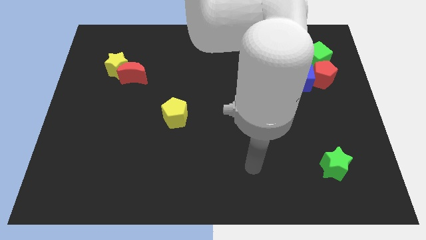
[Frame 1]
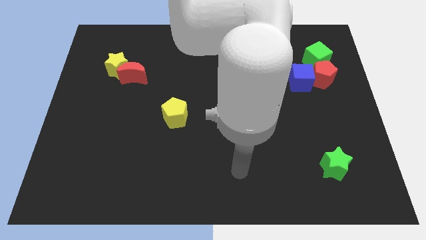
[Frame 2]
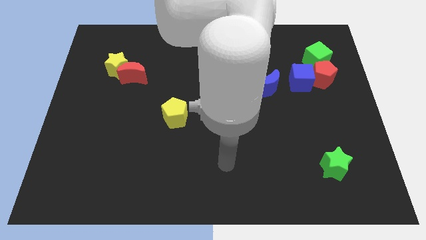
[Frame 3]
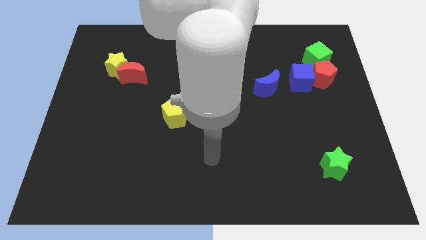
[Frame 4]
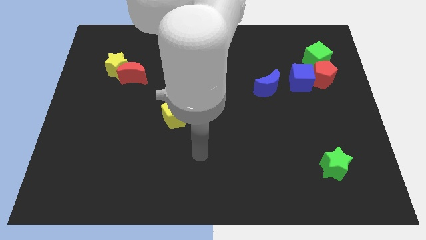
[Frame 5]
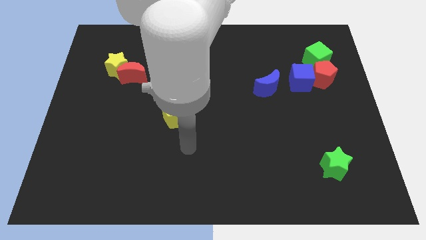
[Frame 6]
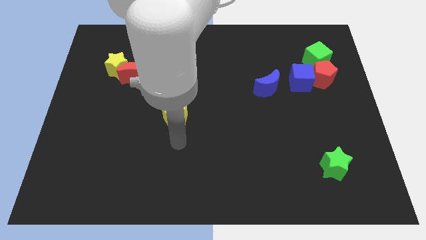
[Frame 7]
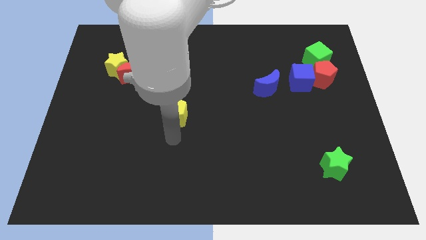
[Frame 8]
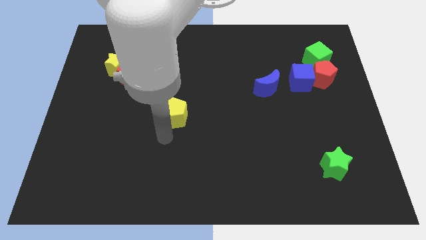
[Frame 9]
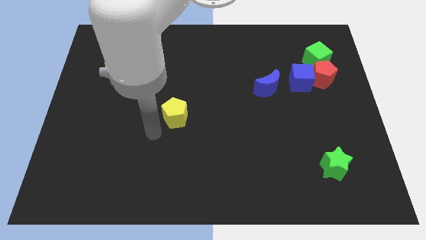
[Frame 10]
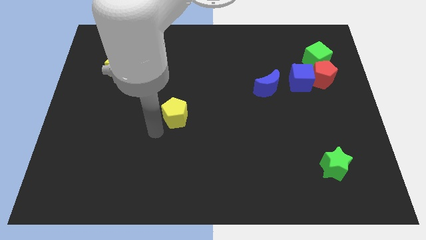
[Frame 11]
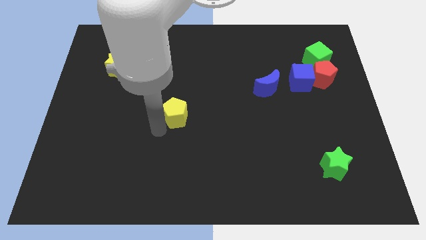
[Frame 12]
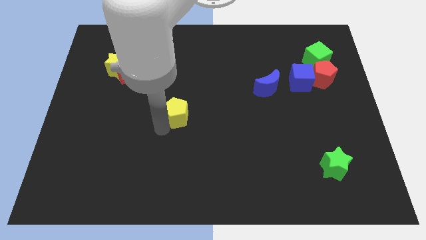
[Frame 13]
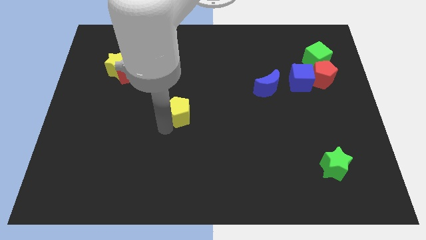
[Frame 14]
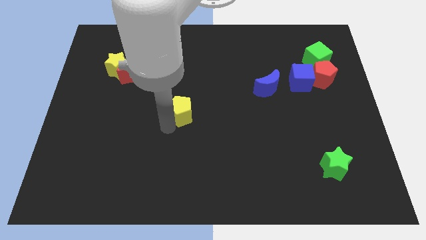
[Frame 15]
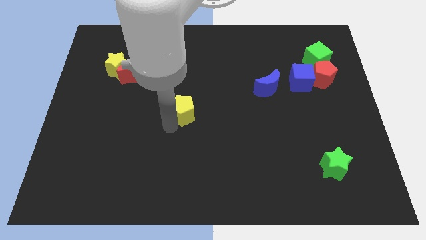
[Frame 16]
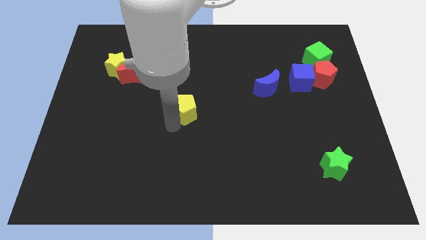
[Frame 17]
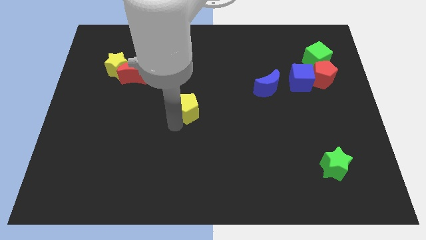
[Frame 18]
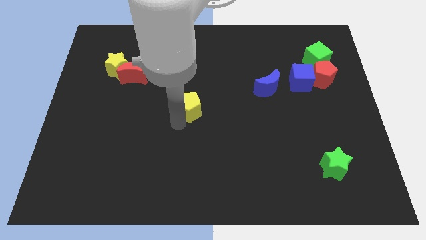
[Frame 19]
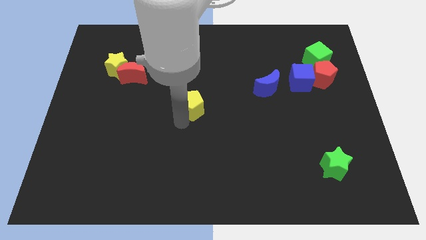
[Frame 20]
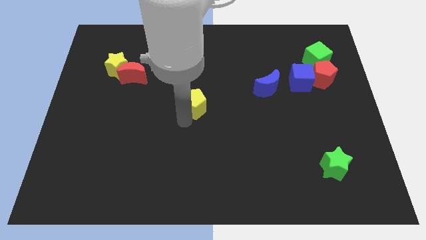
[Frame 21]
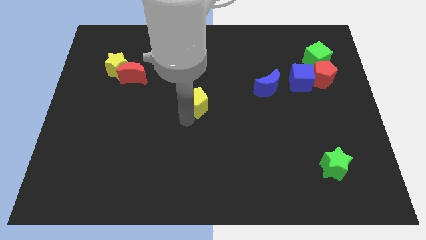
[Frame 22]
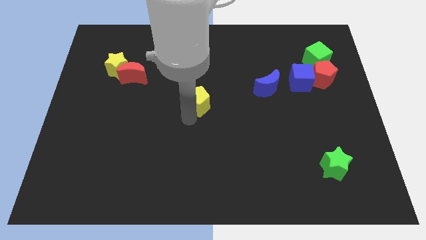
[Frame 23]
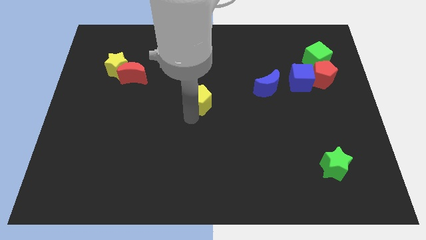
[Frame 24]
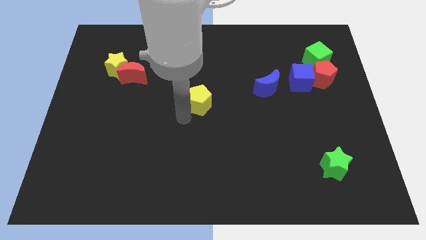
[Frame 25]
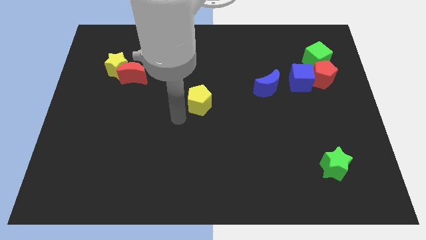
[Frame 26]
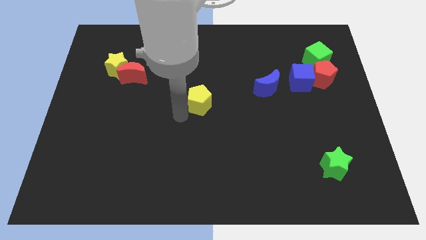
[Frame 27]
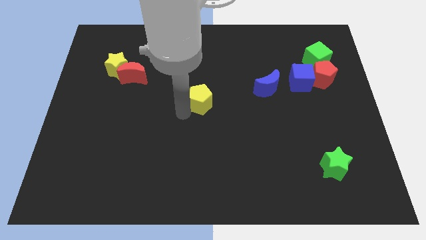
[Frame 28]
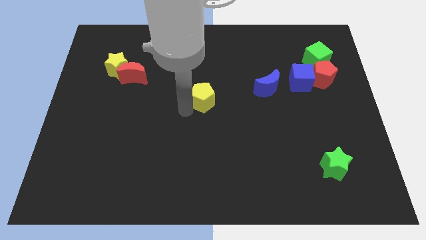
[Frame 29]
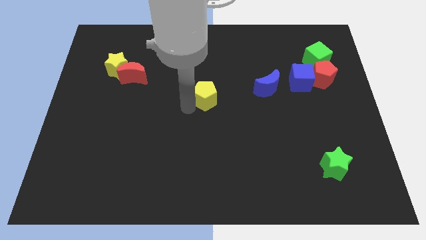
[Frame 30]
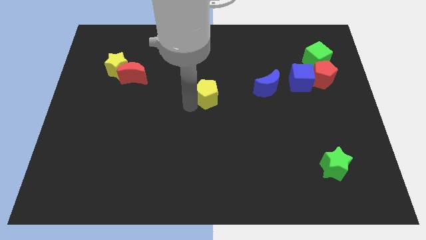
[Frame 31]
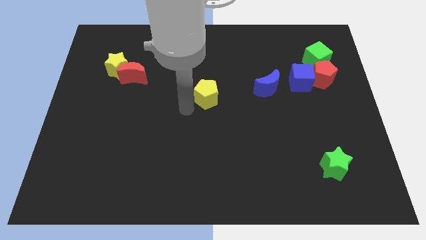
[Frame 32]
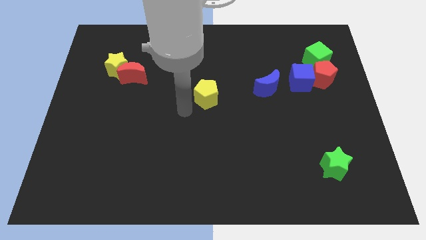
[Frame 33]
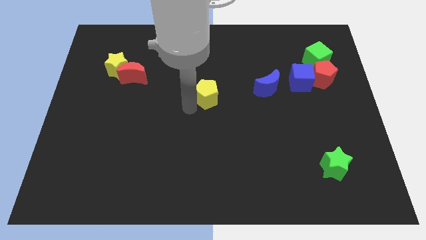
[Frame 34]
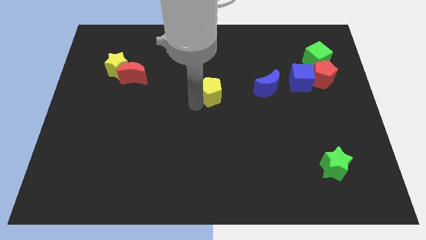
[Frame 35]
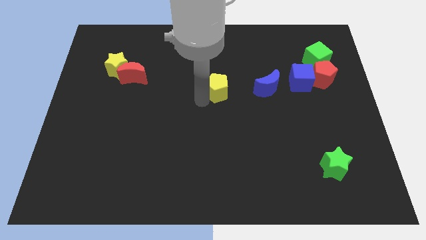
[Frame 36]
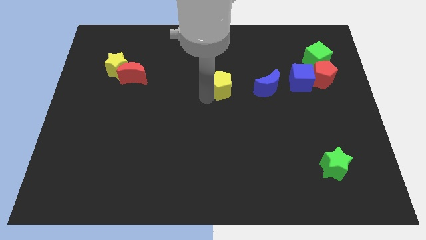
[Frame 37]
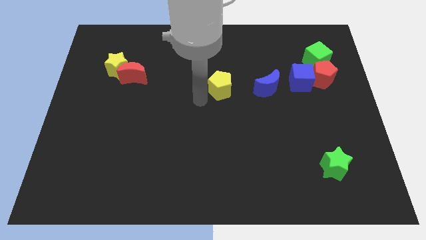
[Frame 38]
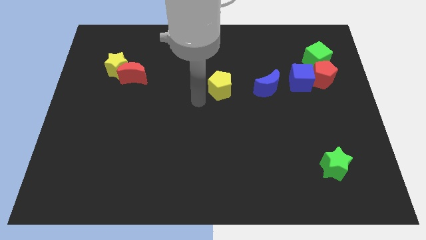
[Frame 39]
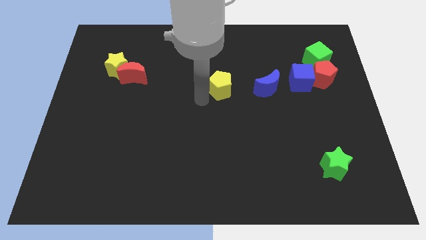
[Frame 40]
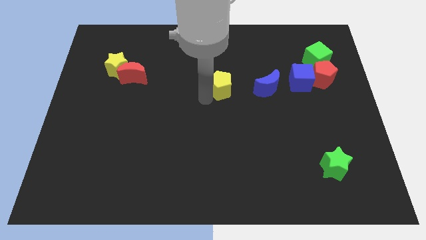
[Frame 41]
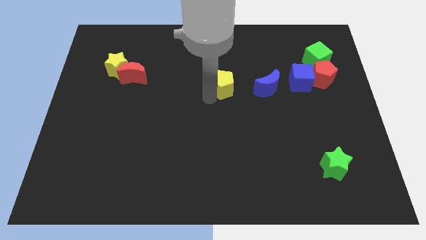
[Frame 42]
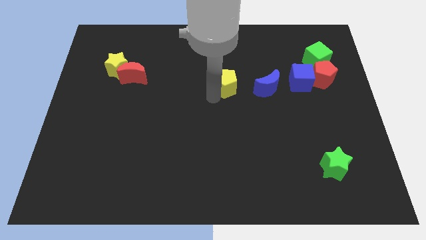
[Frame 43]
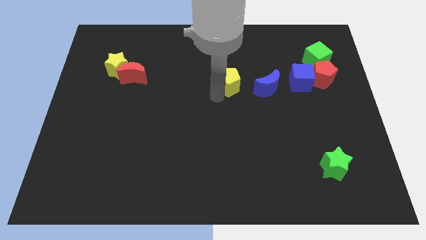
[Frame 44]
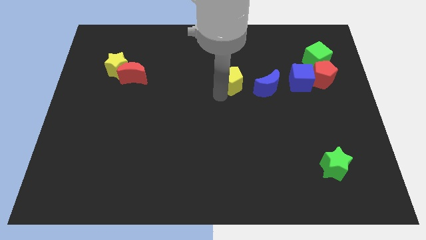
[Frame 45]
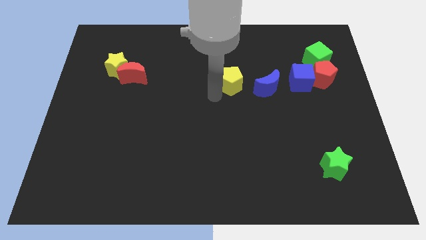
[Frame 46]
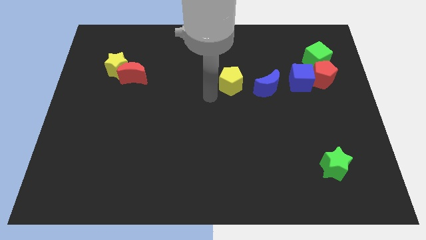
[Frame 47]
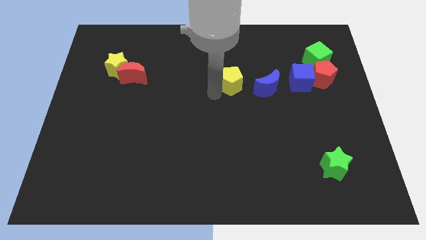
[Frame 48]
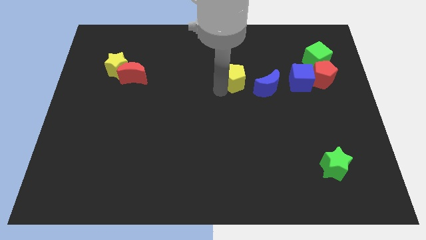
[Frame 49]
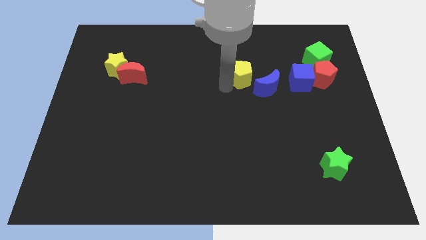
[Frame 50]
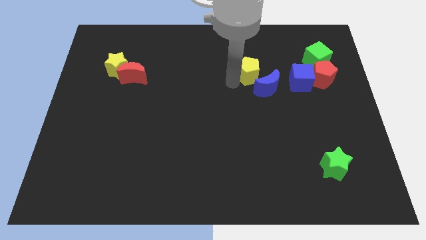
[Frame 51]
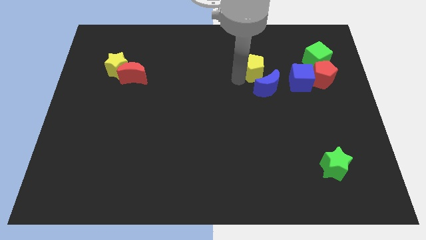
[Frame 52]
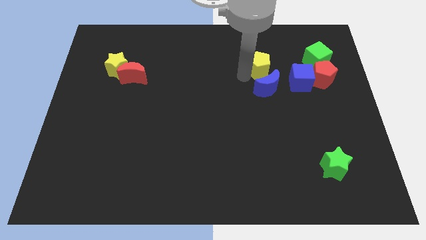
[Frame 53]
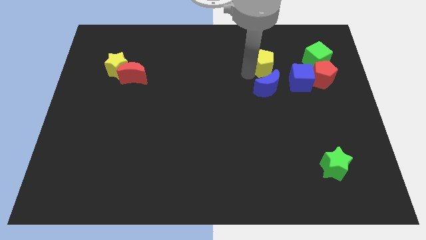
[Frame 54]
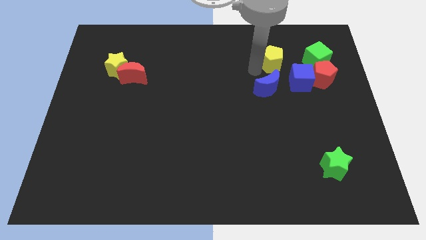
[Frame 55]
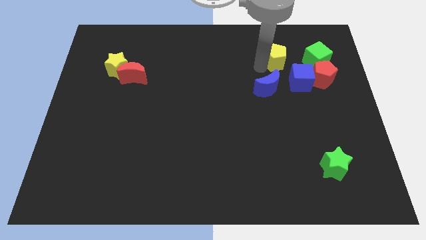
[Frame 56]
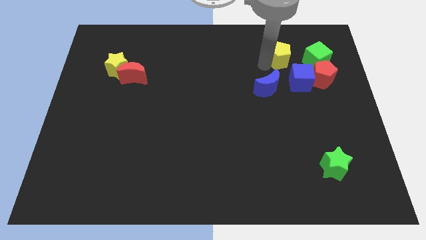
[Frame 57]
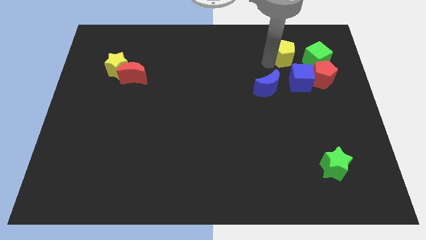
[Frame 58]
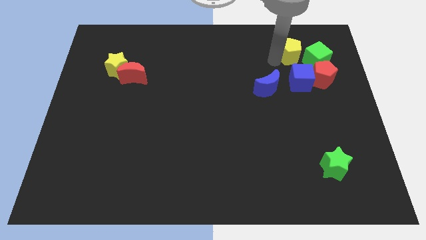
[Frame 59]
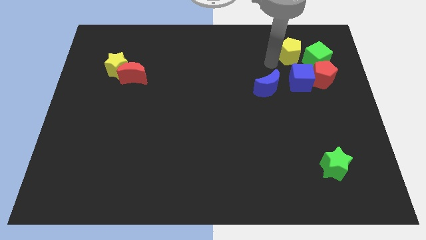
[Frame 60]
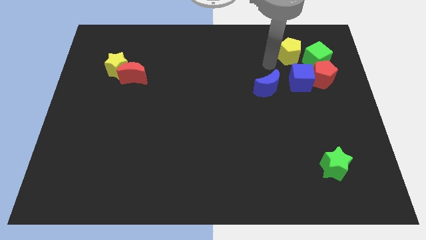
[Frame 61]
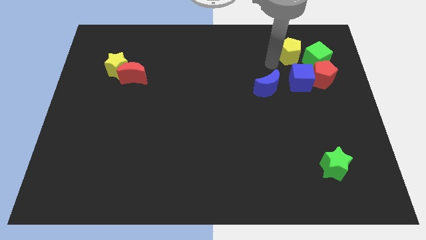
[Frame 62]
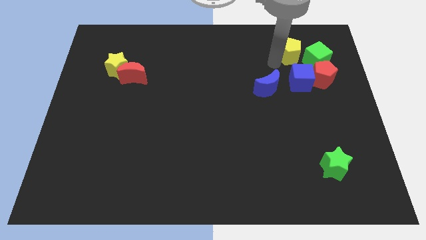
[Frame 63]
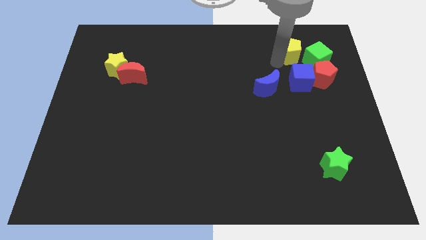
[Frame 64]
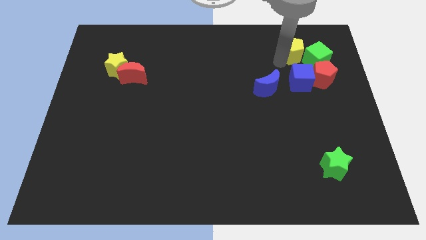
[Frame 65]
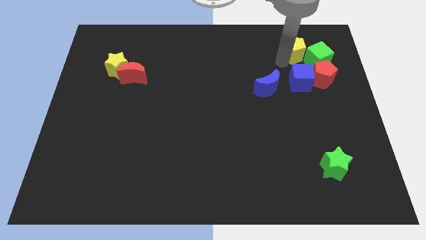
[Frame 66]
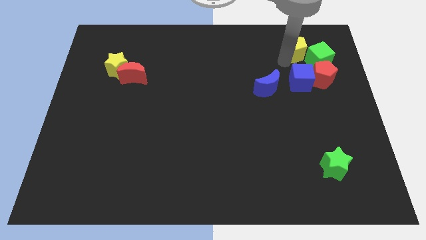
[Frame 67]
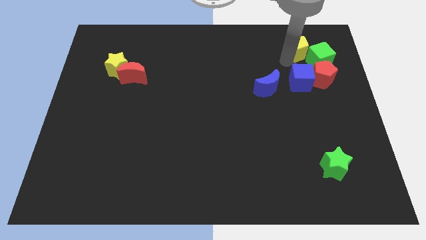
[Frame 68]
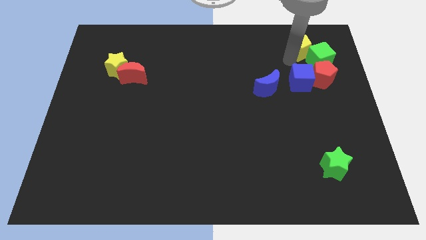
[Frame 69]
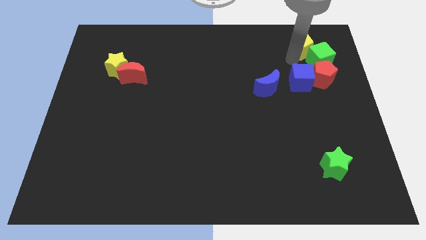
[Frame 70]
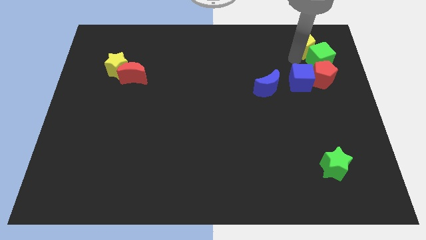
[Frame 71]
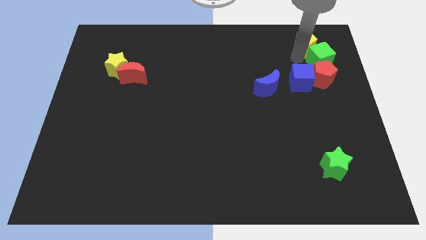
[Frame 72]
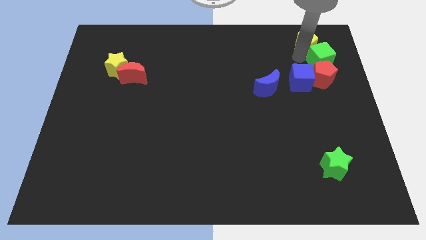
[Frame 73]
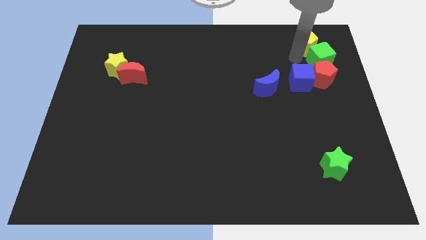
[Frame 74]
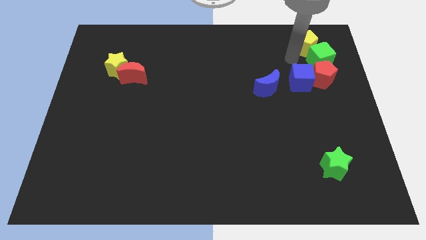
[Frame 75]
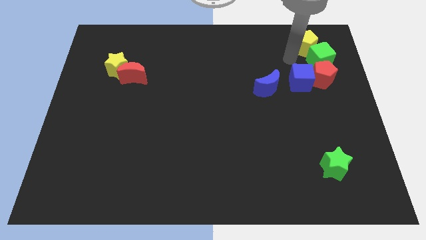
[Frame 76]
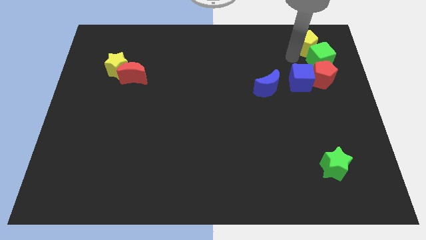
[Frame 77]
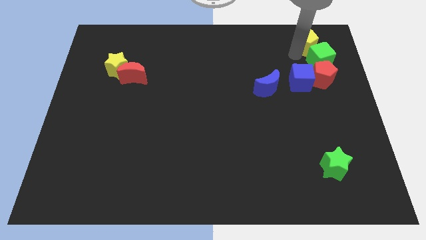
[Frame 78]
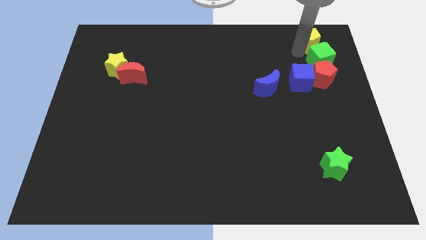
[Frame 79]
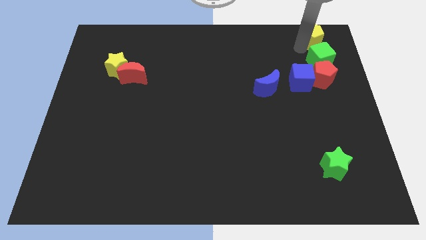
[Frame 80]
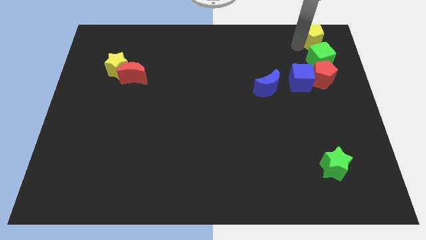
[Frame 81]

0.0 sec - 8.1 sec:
put the yellow pentagon to the upper right corner
